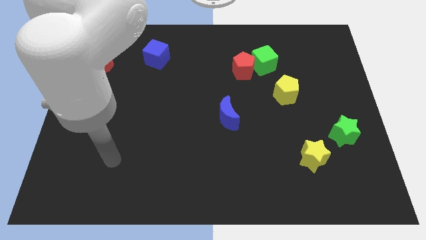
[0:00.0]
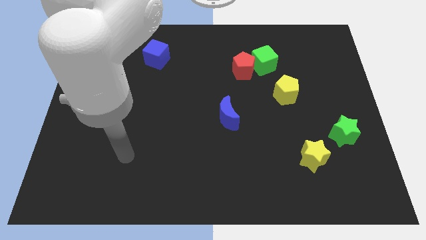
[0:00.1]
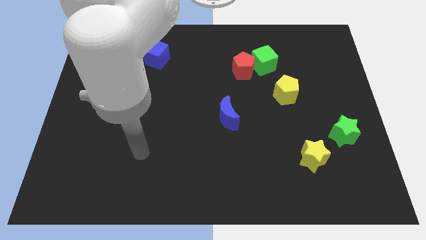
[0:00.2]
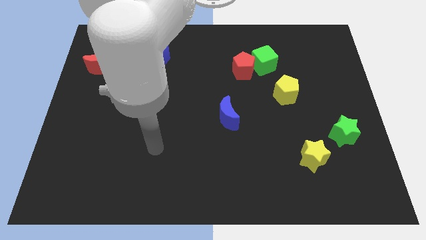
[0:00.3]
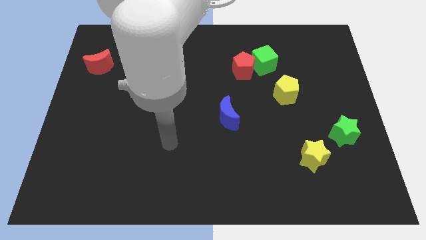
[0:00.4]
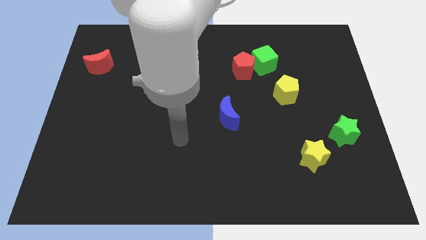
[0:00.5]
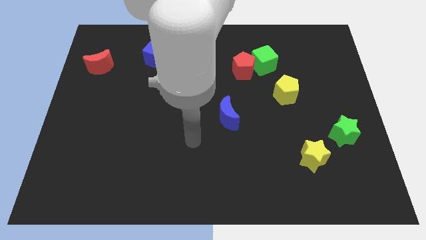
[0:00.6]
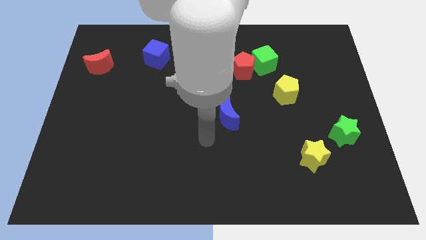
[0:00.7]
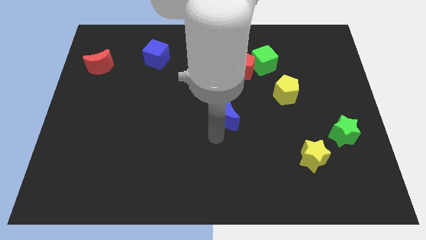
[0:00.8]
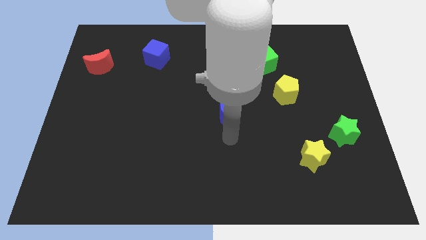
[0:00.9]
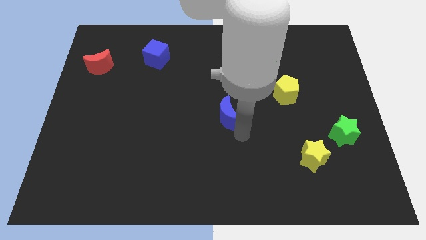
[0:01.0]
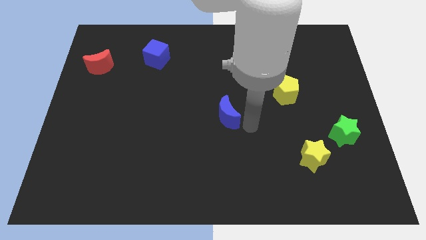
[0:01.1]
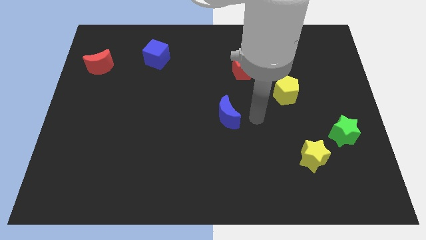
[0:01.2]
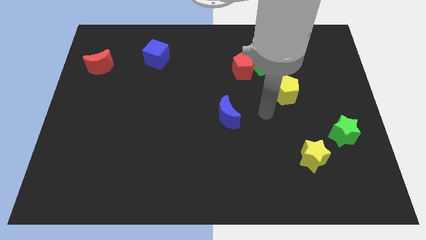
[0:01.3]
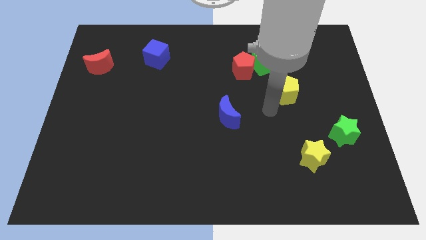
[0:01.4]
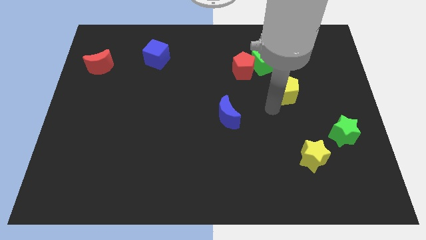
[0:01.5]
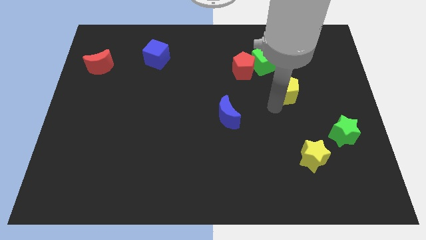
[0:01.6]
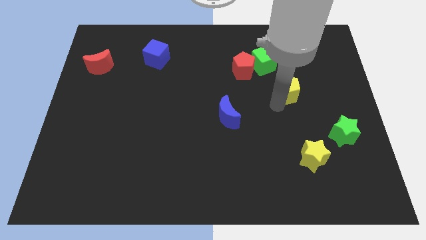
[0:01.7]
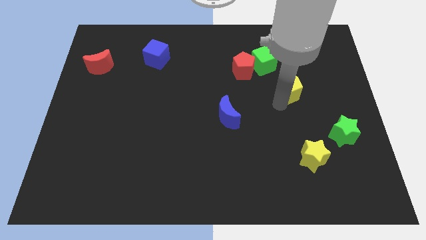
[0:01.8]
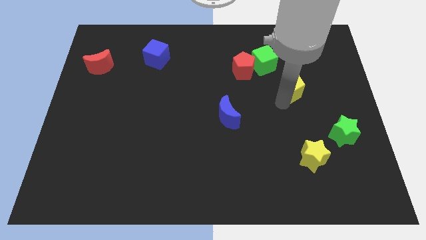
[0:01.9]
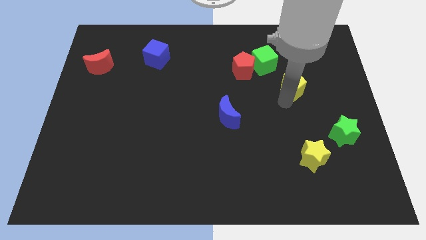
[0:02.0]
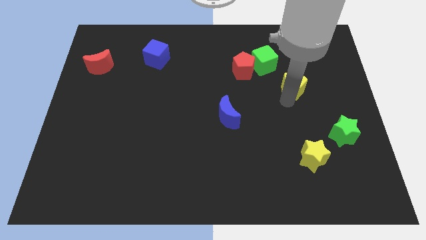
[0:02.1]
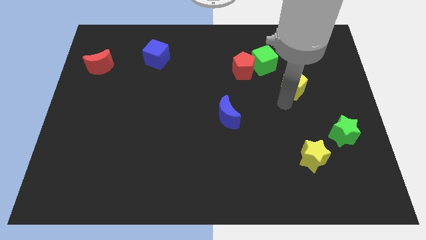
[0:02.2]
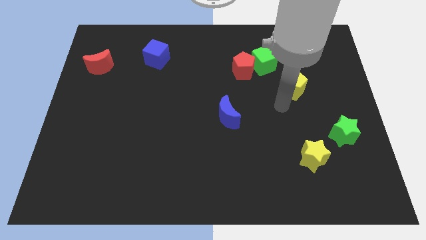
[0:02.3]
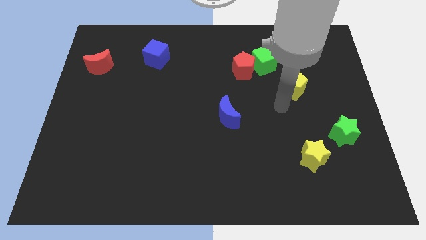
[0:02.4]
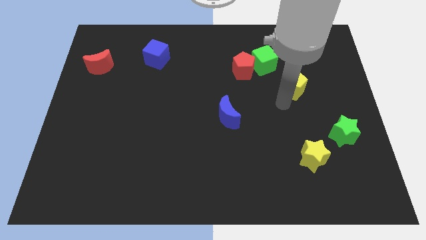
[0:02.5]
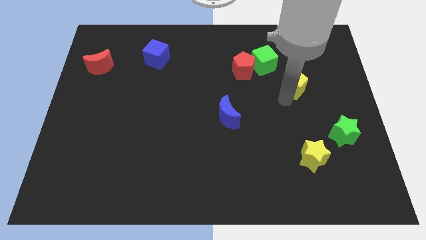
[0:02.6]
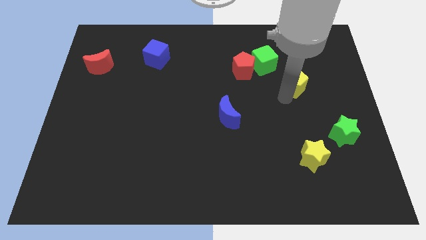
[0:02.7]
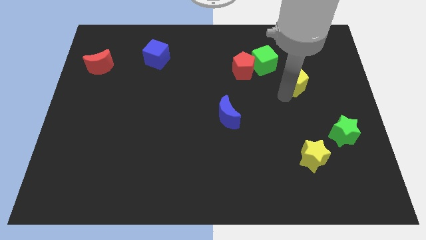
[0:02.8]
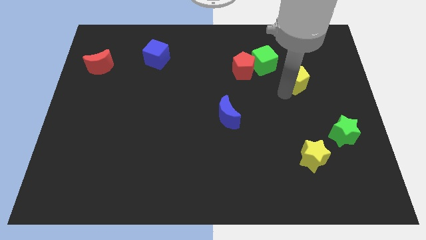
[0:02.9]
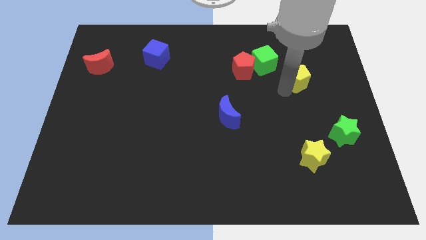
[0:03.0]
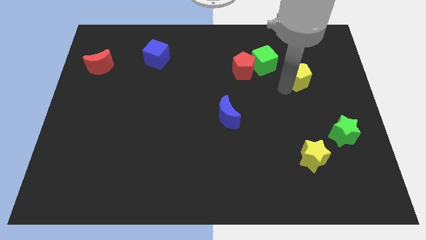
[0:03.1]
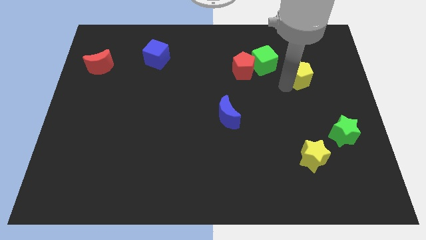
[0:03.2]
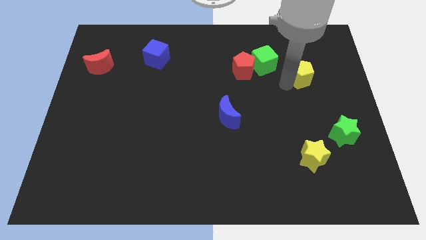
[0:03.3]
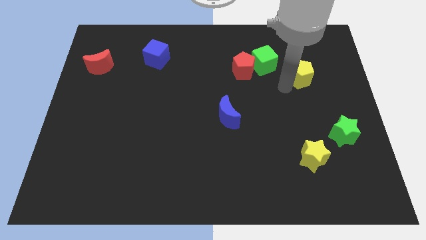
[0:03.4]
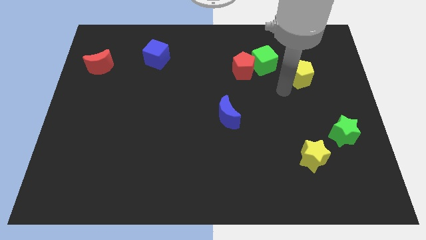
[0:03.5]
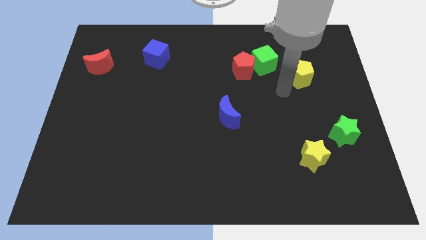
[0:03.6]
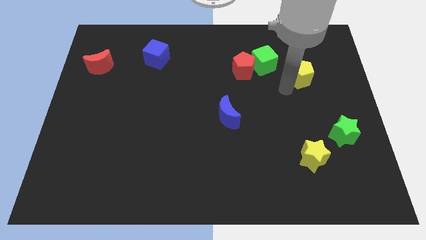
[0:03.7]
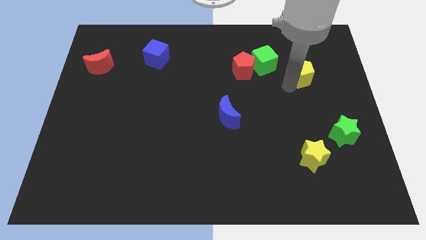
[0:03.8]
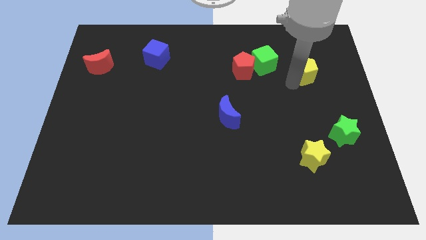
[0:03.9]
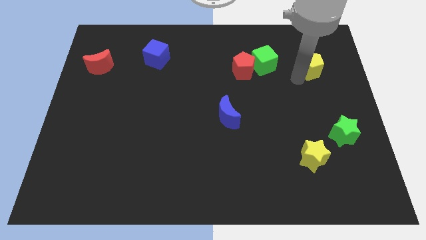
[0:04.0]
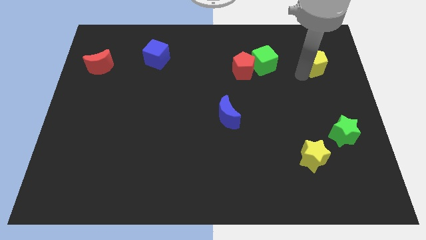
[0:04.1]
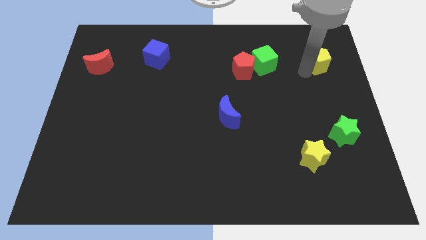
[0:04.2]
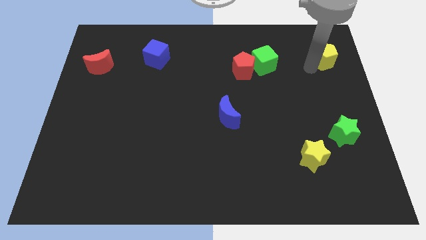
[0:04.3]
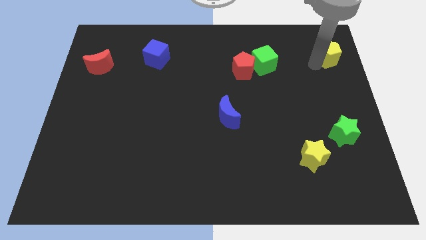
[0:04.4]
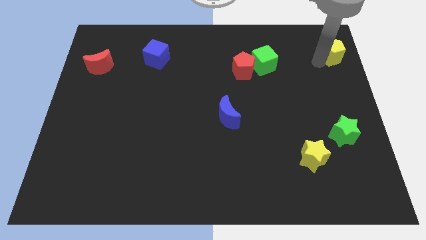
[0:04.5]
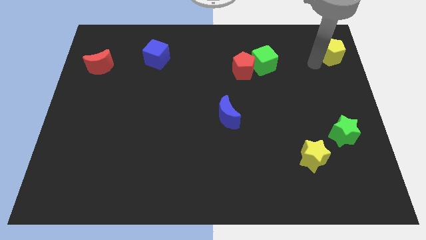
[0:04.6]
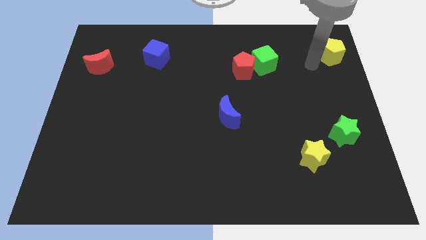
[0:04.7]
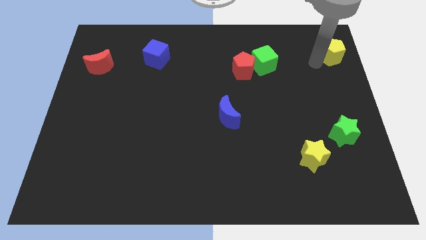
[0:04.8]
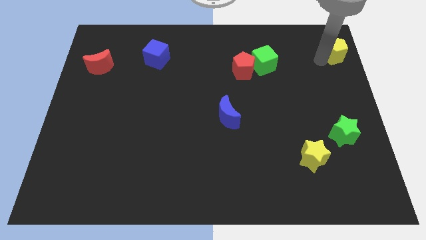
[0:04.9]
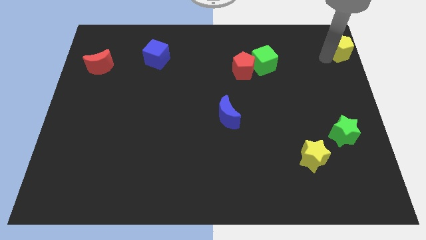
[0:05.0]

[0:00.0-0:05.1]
move the yellow pentagon to the top right

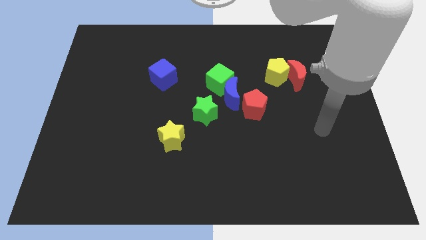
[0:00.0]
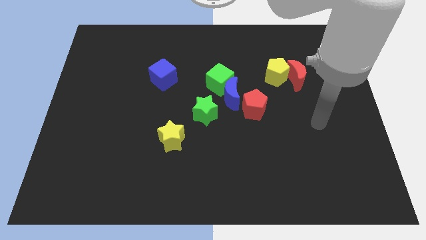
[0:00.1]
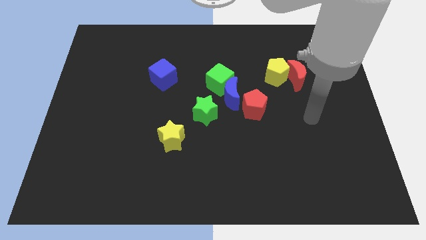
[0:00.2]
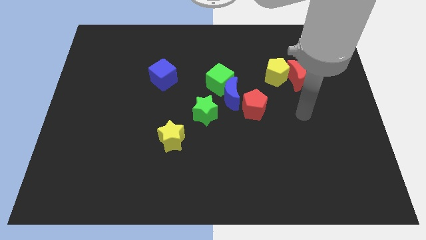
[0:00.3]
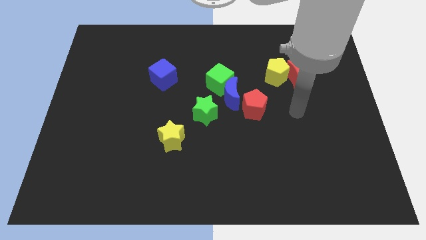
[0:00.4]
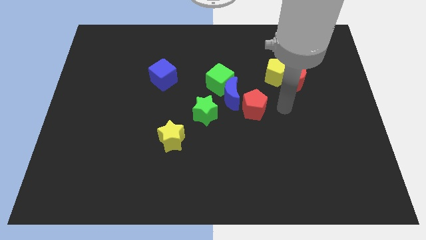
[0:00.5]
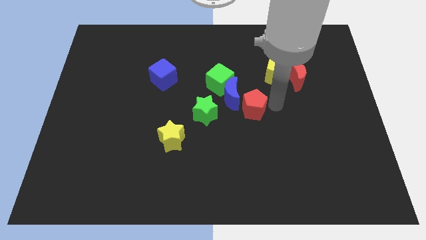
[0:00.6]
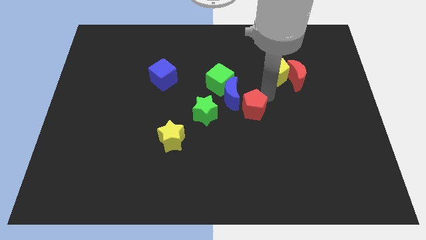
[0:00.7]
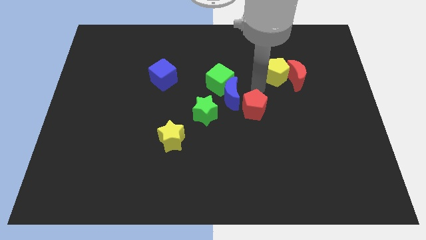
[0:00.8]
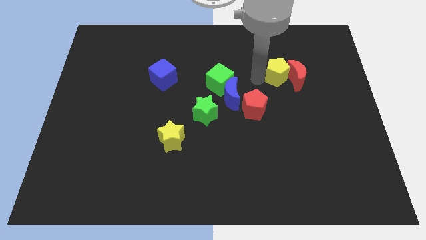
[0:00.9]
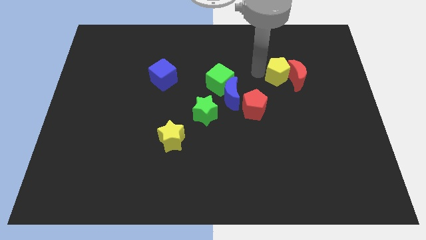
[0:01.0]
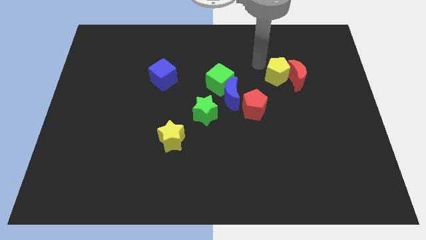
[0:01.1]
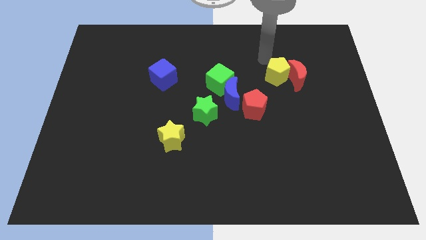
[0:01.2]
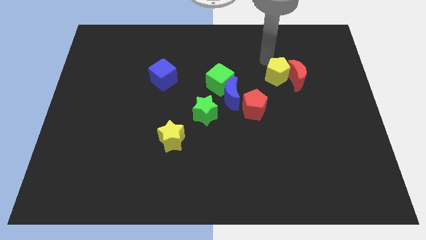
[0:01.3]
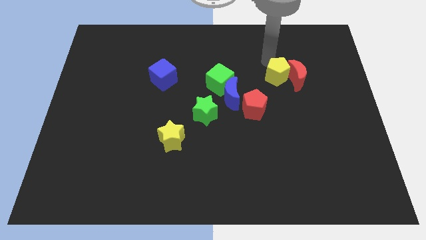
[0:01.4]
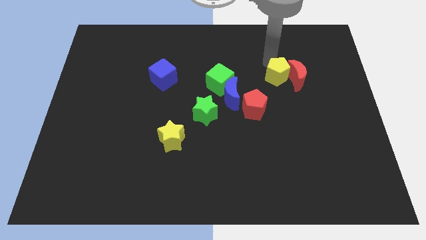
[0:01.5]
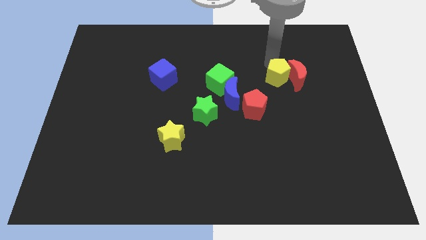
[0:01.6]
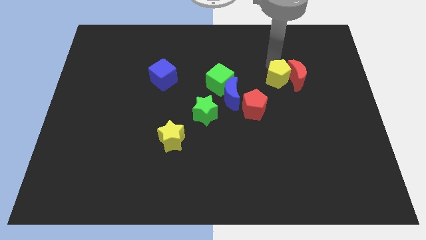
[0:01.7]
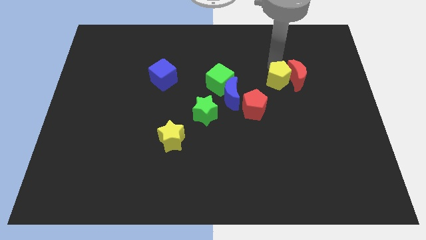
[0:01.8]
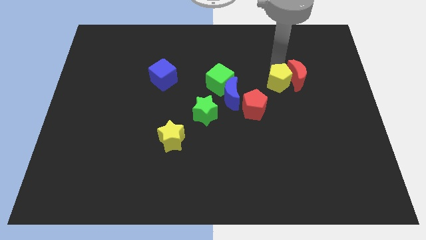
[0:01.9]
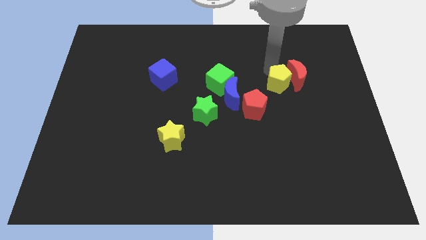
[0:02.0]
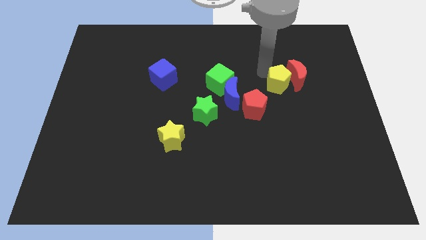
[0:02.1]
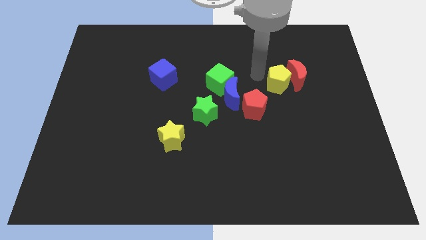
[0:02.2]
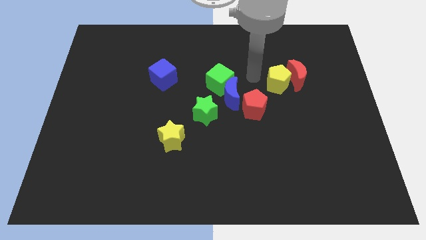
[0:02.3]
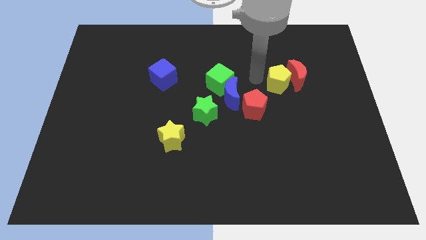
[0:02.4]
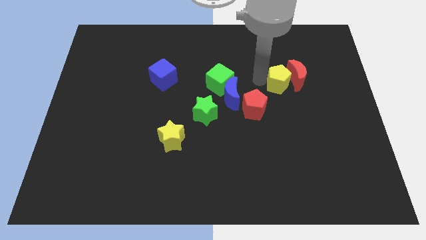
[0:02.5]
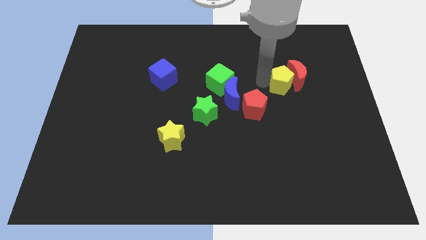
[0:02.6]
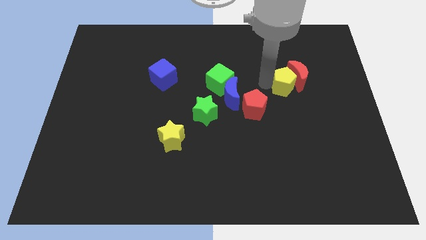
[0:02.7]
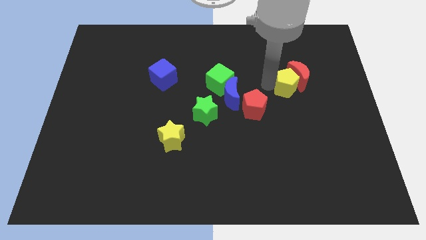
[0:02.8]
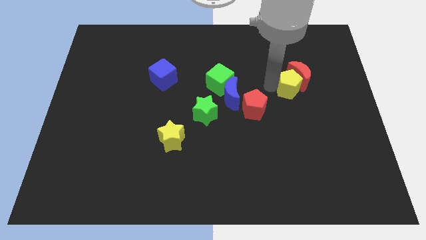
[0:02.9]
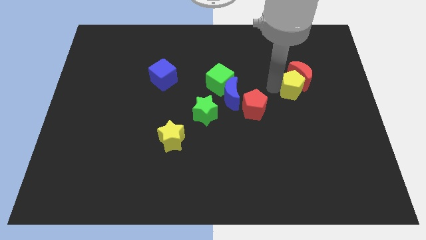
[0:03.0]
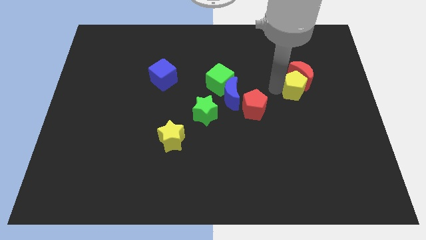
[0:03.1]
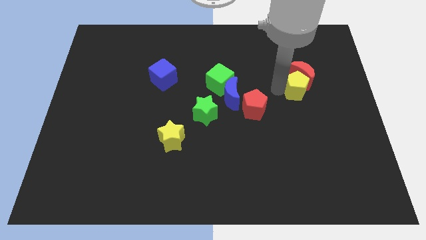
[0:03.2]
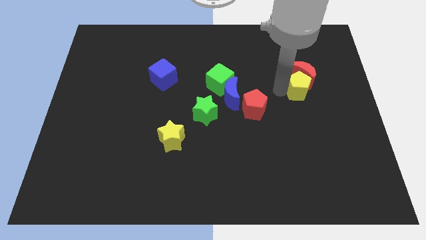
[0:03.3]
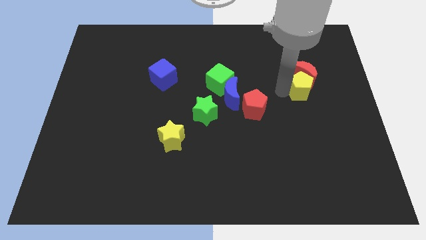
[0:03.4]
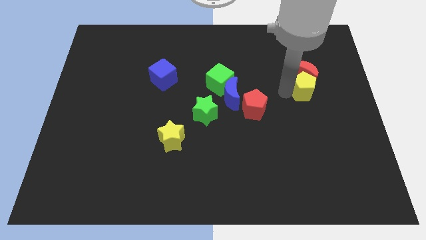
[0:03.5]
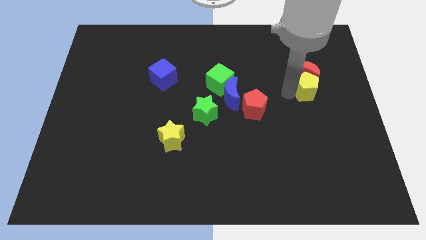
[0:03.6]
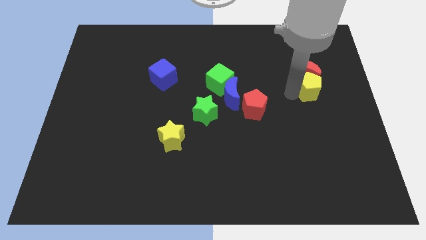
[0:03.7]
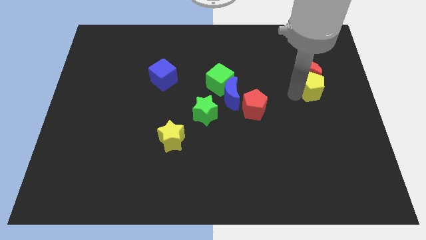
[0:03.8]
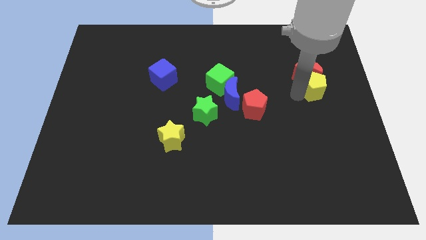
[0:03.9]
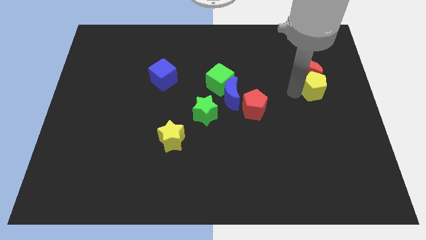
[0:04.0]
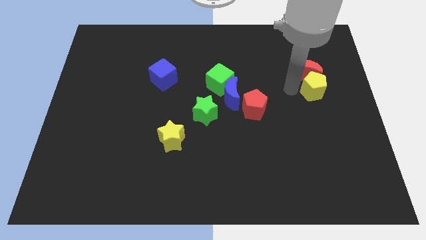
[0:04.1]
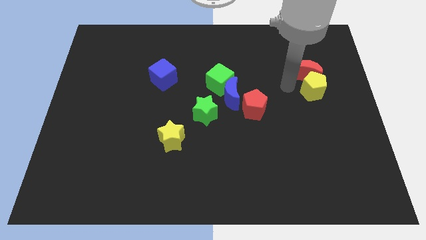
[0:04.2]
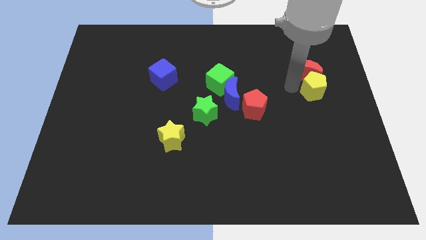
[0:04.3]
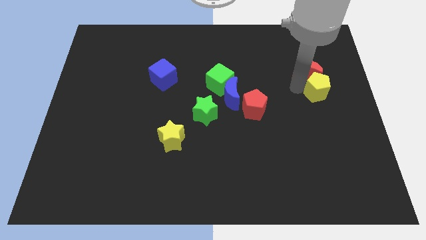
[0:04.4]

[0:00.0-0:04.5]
push the yellow pentagon to the right side
